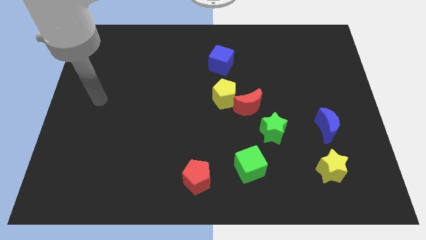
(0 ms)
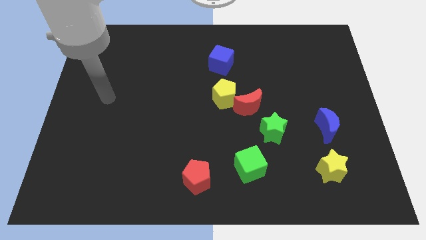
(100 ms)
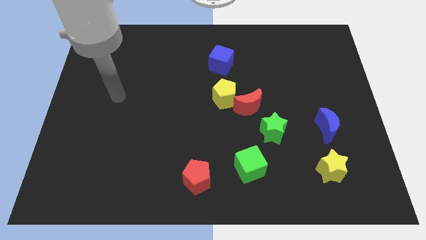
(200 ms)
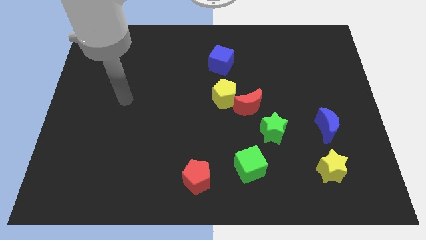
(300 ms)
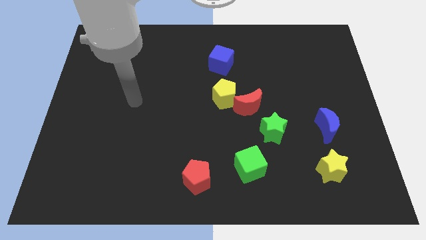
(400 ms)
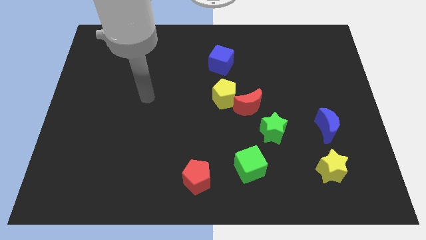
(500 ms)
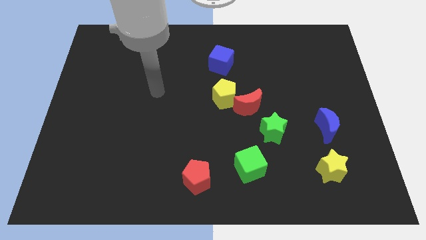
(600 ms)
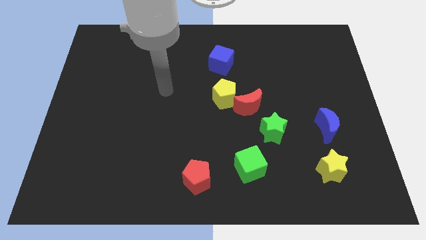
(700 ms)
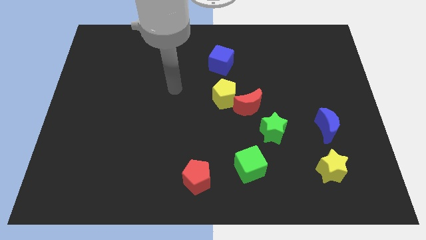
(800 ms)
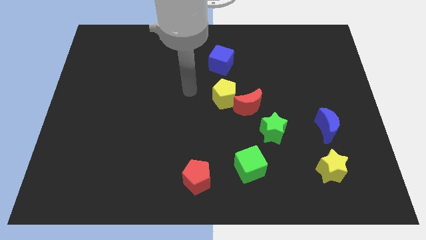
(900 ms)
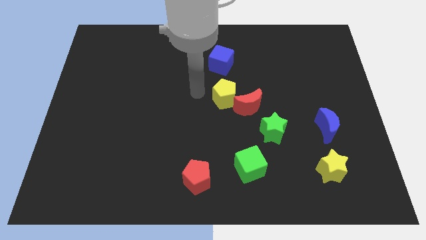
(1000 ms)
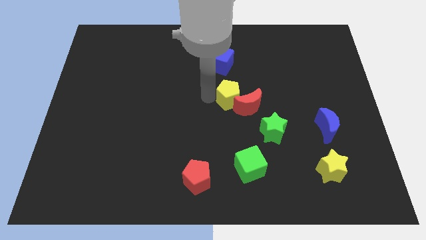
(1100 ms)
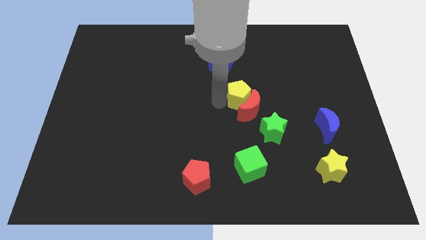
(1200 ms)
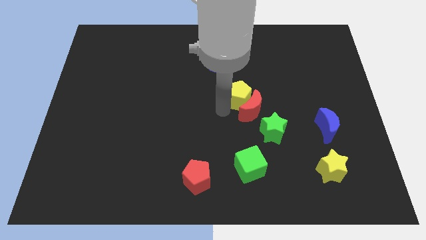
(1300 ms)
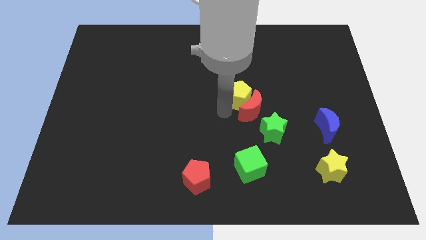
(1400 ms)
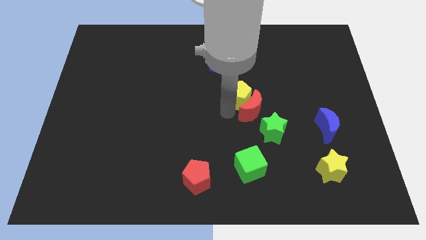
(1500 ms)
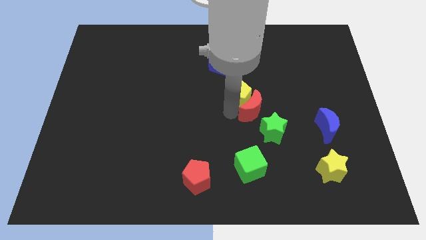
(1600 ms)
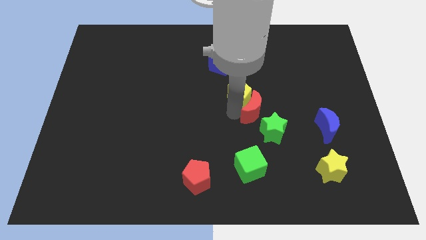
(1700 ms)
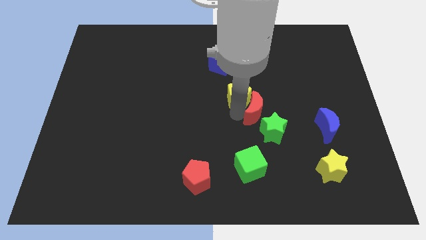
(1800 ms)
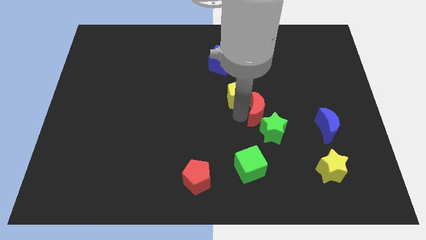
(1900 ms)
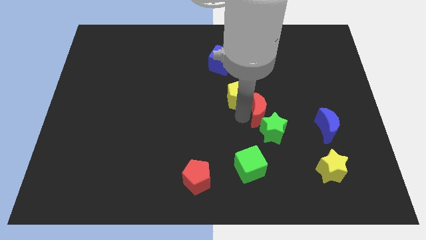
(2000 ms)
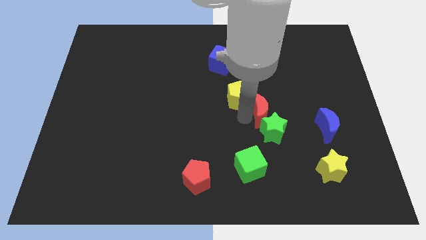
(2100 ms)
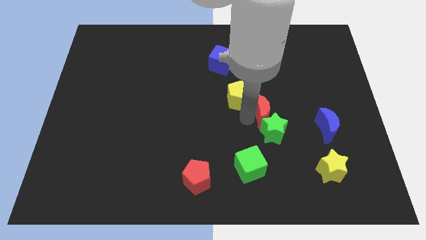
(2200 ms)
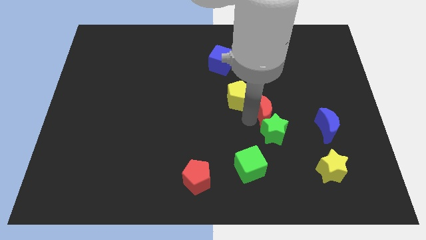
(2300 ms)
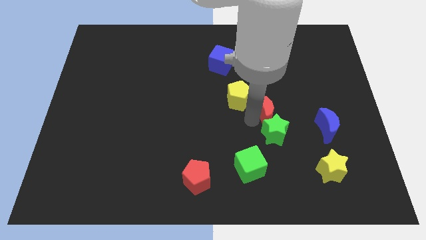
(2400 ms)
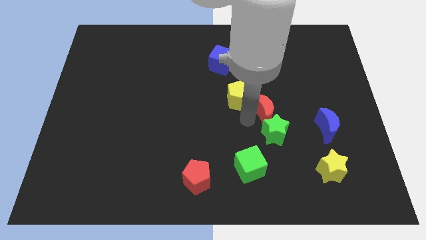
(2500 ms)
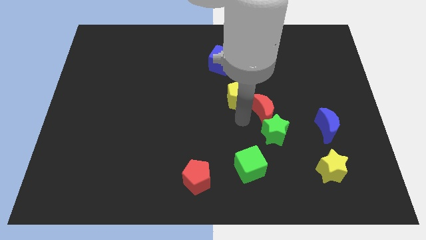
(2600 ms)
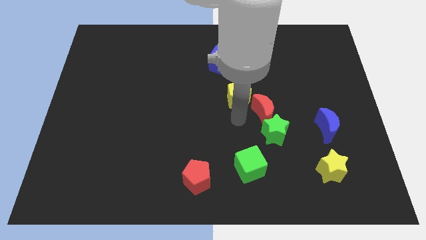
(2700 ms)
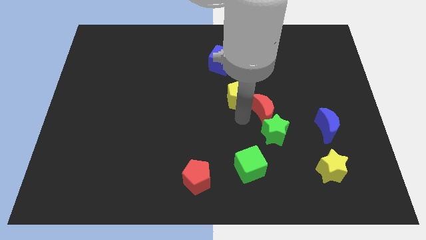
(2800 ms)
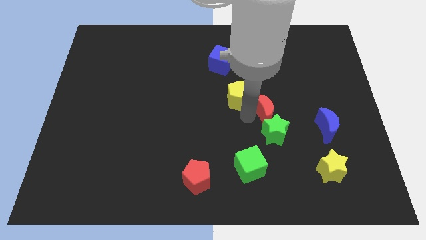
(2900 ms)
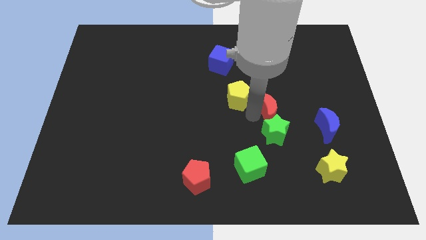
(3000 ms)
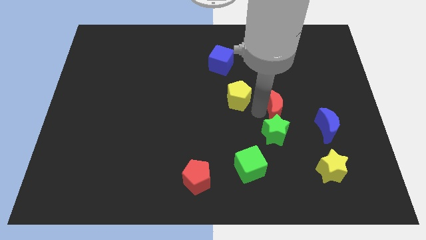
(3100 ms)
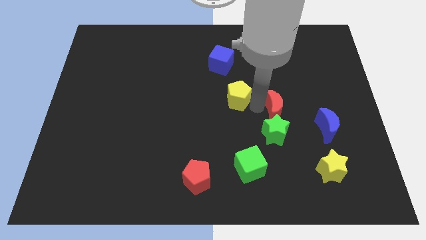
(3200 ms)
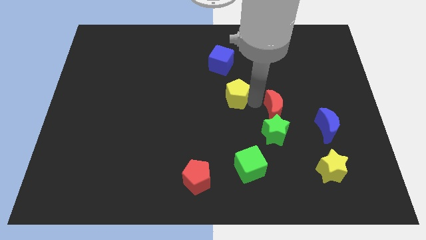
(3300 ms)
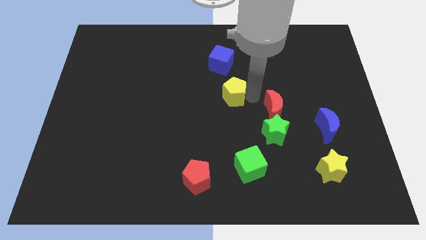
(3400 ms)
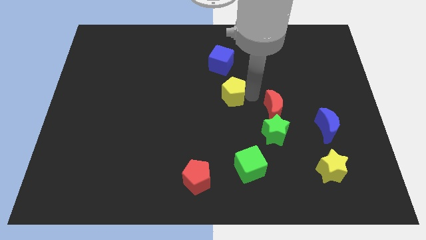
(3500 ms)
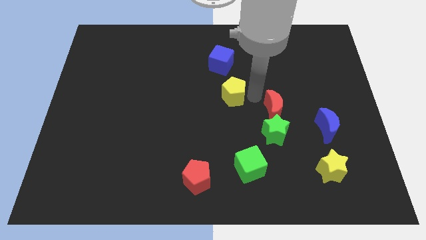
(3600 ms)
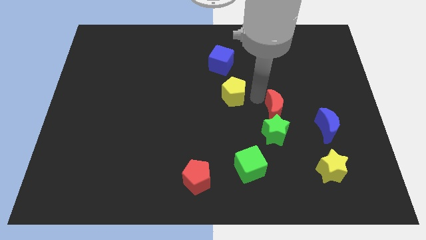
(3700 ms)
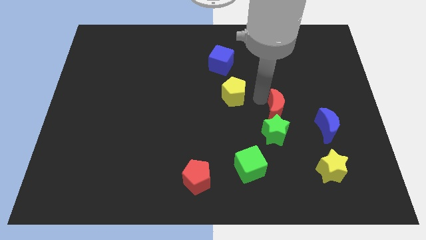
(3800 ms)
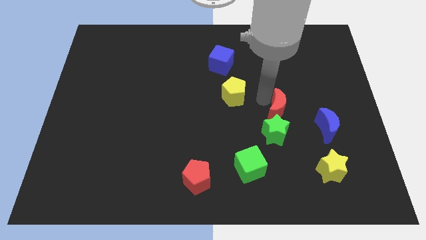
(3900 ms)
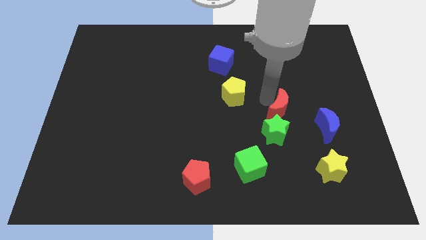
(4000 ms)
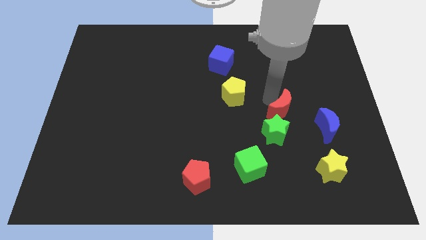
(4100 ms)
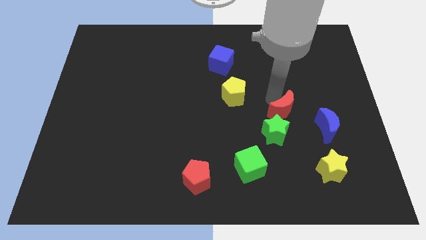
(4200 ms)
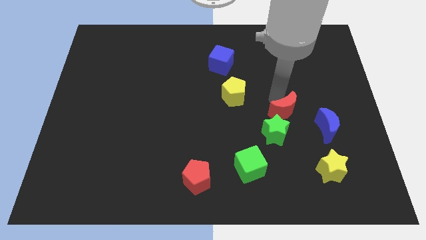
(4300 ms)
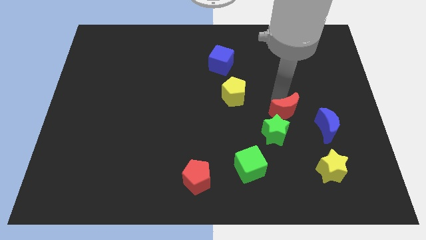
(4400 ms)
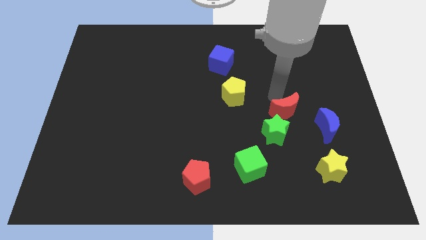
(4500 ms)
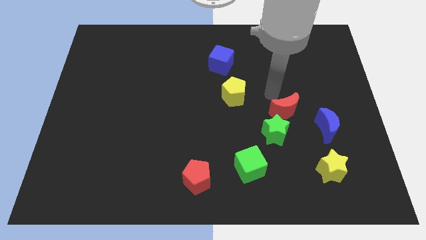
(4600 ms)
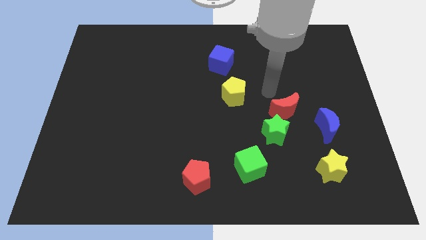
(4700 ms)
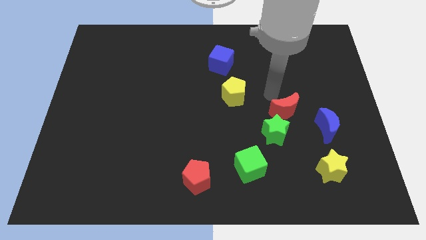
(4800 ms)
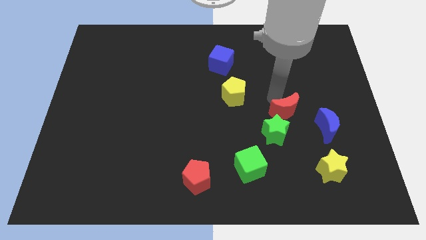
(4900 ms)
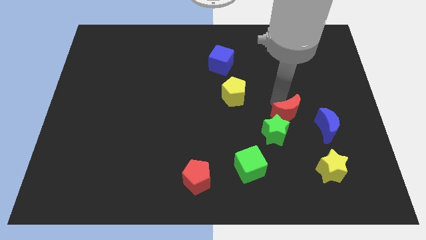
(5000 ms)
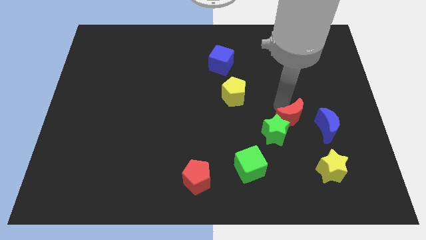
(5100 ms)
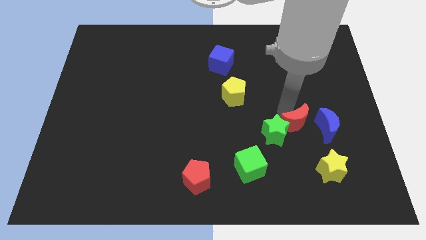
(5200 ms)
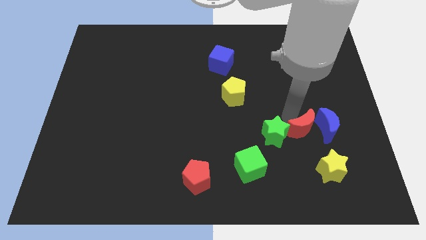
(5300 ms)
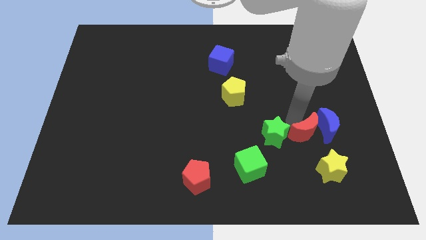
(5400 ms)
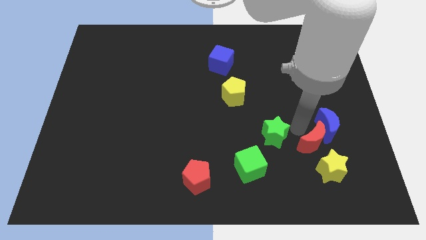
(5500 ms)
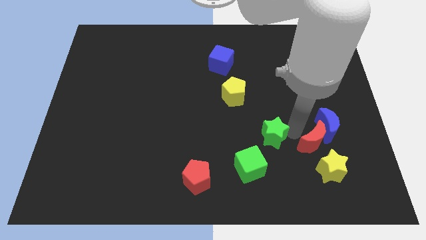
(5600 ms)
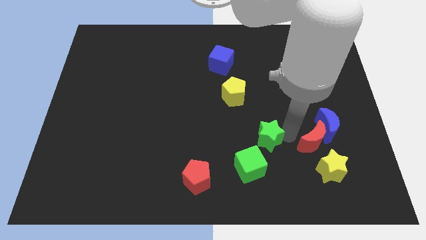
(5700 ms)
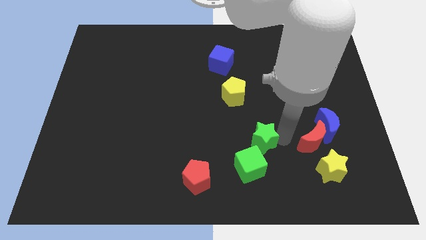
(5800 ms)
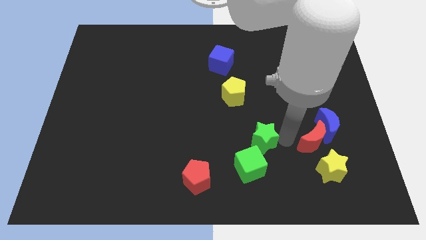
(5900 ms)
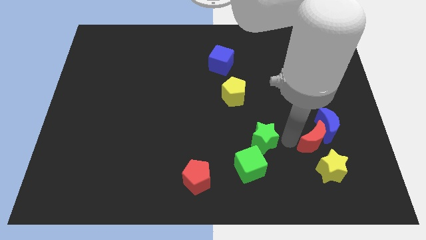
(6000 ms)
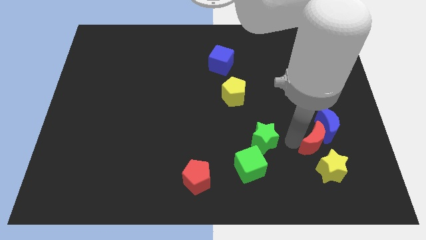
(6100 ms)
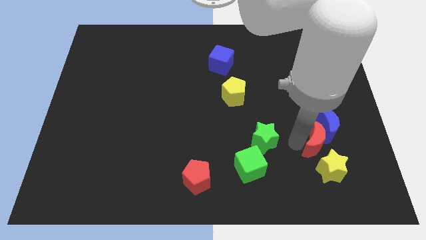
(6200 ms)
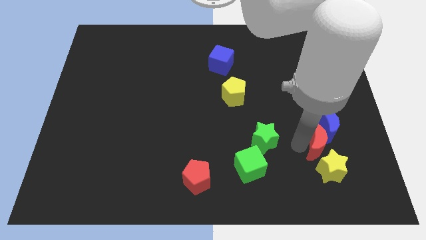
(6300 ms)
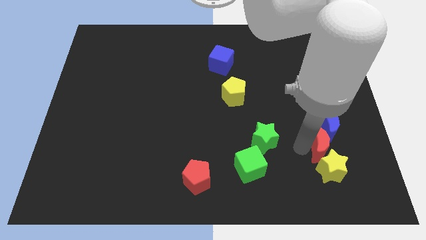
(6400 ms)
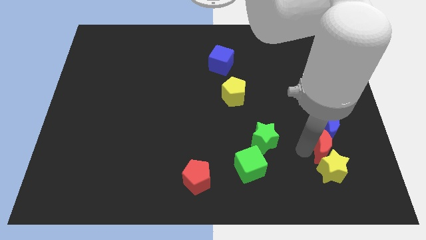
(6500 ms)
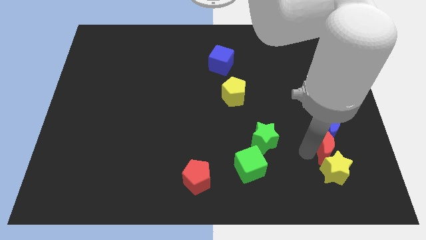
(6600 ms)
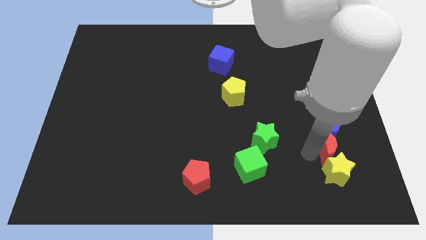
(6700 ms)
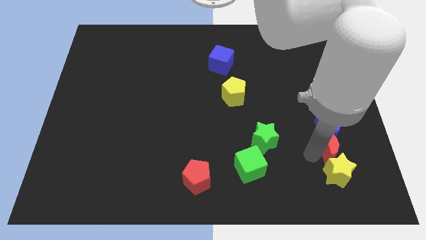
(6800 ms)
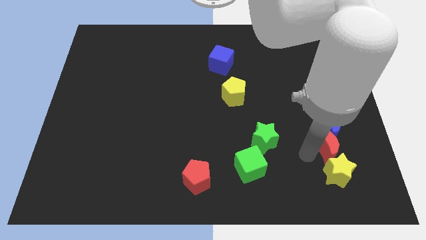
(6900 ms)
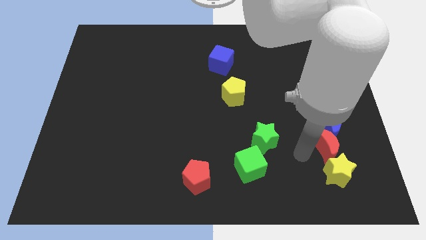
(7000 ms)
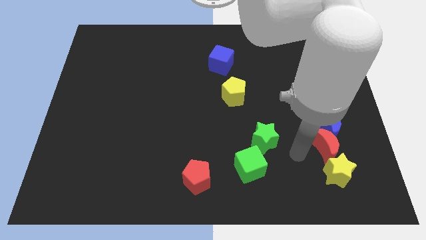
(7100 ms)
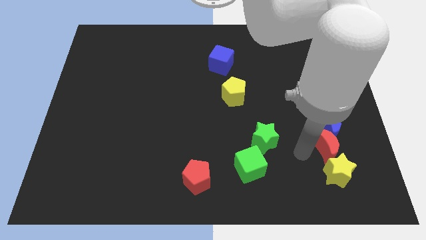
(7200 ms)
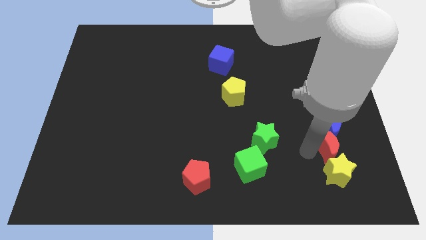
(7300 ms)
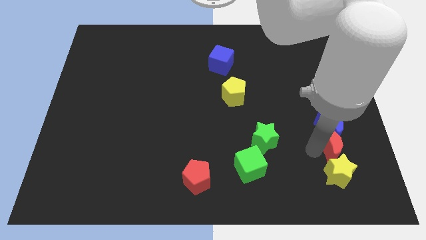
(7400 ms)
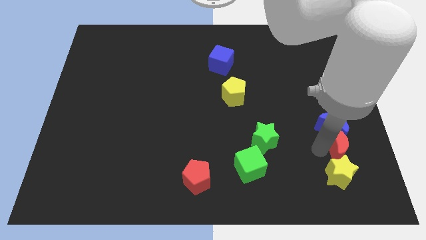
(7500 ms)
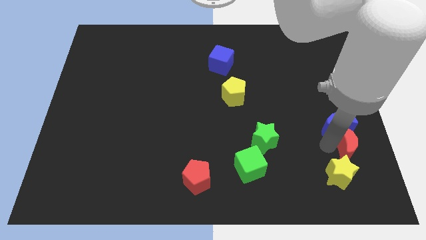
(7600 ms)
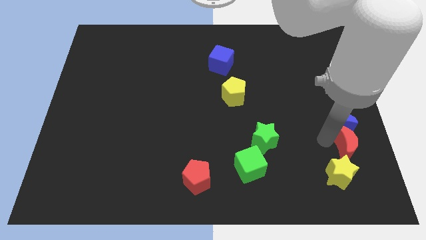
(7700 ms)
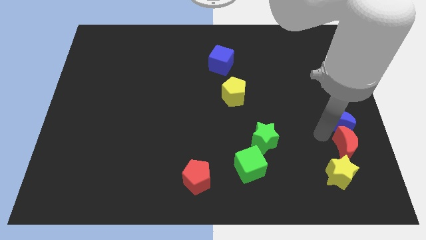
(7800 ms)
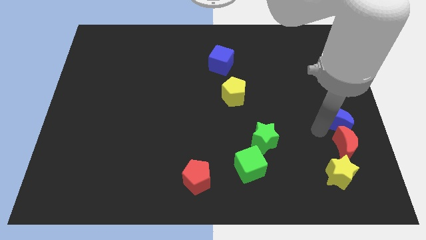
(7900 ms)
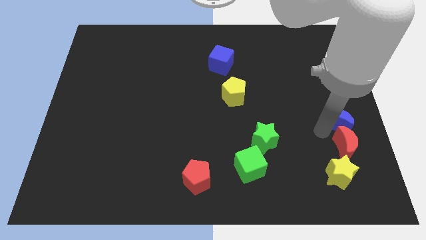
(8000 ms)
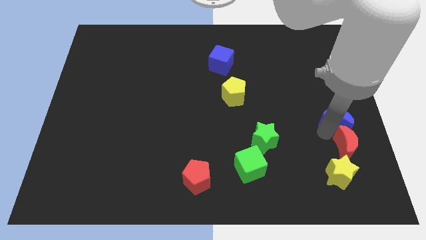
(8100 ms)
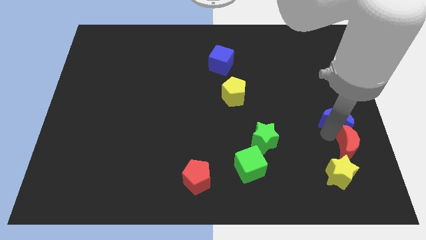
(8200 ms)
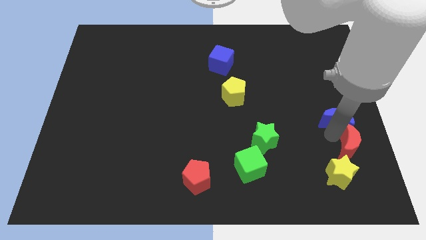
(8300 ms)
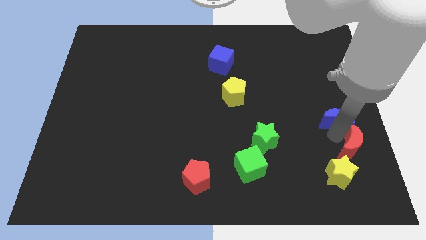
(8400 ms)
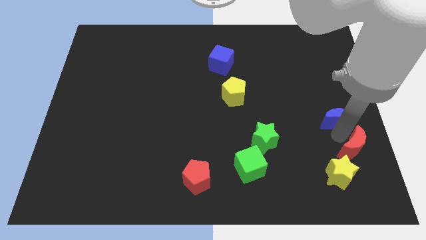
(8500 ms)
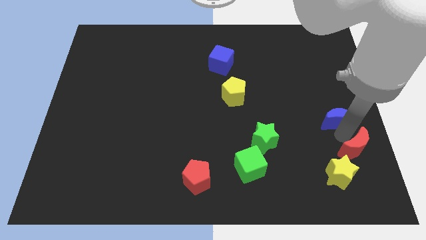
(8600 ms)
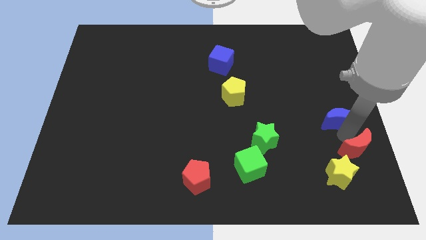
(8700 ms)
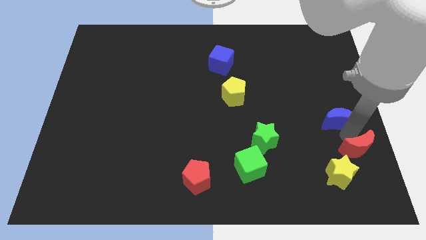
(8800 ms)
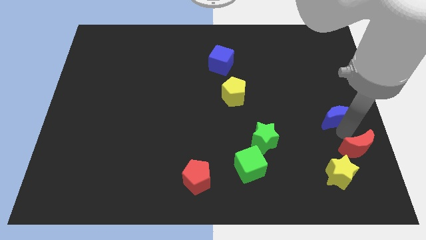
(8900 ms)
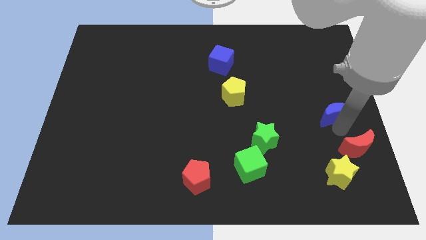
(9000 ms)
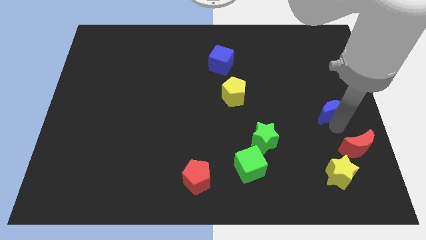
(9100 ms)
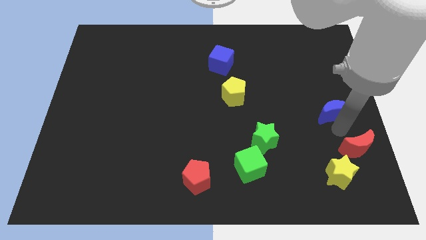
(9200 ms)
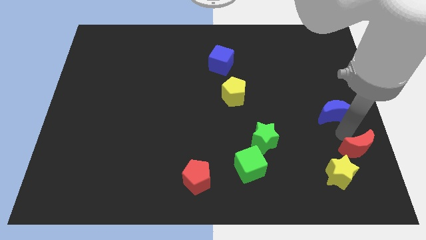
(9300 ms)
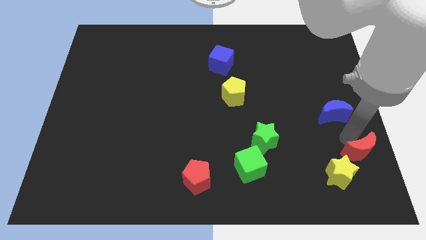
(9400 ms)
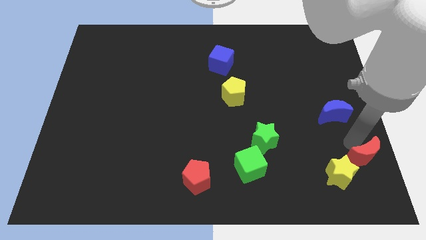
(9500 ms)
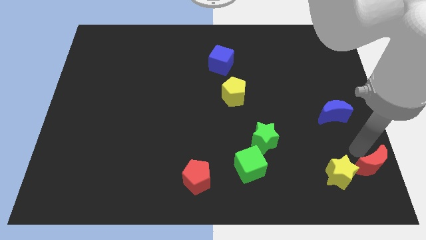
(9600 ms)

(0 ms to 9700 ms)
put the red moon to the bottom right
